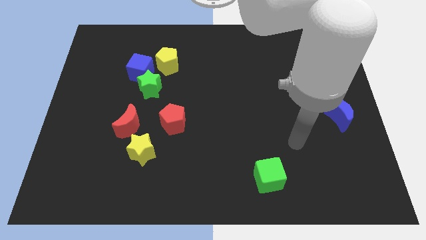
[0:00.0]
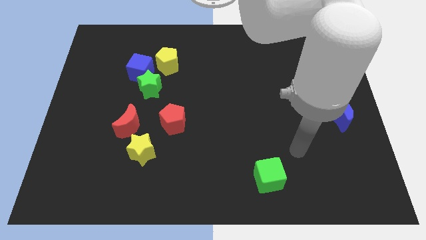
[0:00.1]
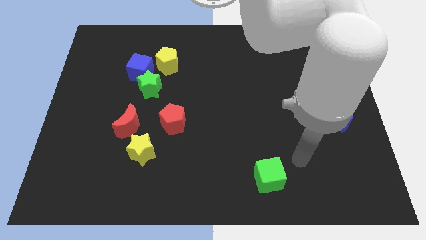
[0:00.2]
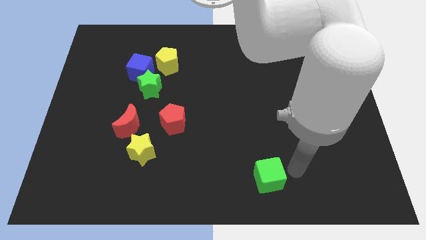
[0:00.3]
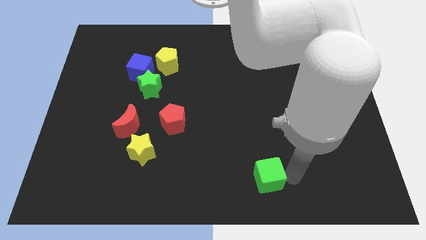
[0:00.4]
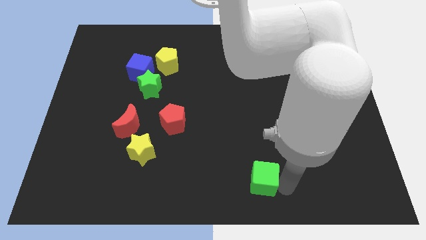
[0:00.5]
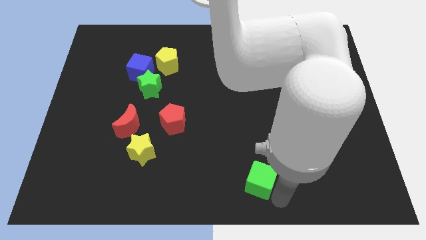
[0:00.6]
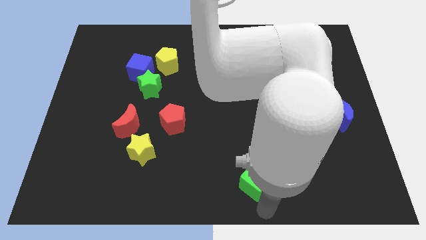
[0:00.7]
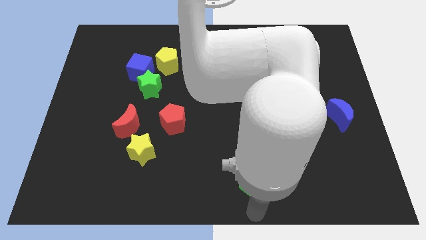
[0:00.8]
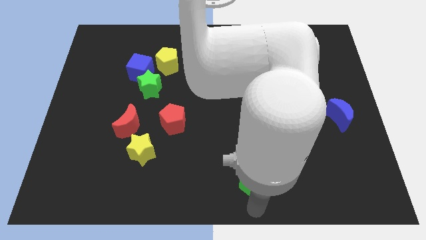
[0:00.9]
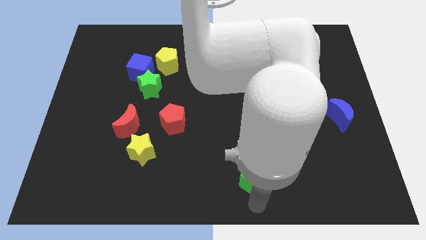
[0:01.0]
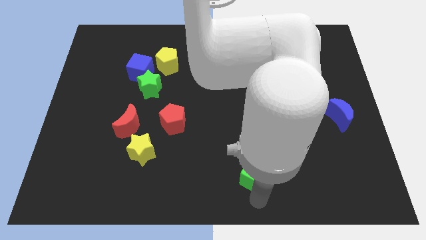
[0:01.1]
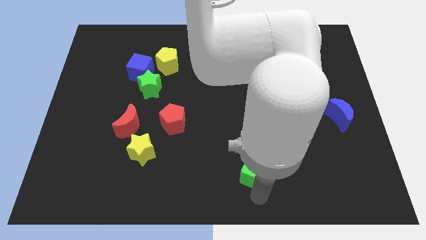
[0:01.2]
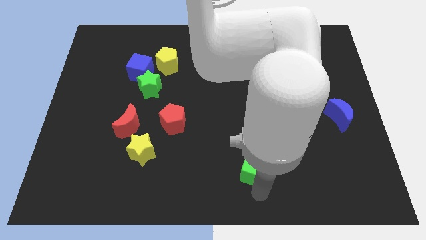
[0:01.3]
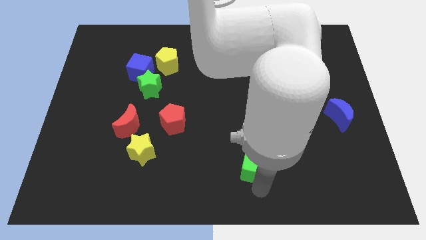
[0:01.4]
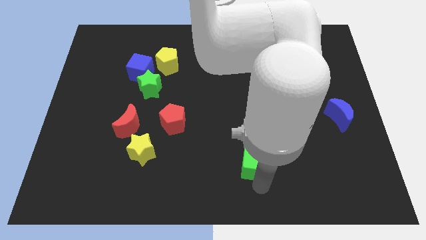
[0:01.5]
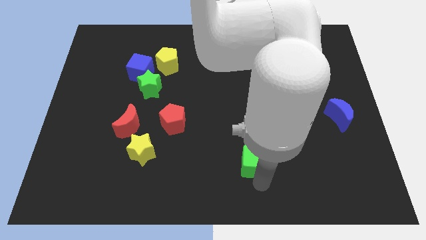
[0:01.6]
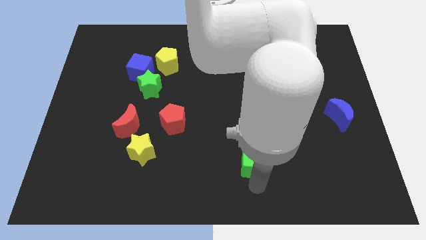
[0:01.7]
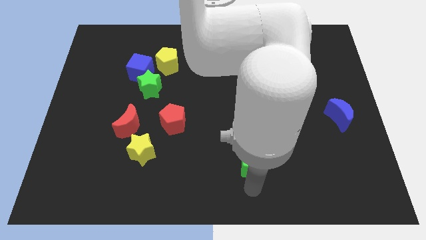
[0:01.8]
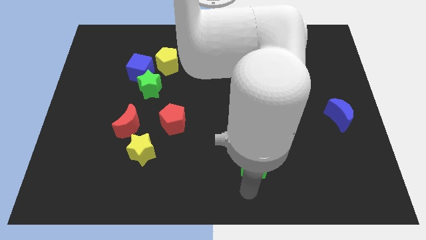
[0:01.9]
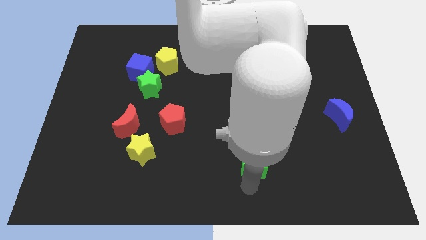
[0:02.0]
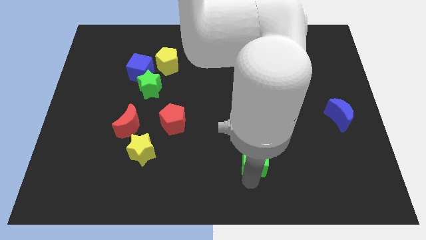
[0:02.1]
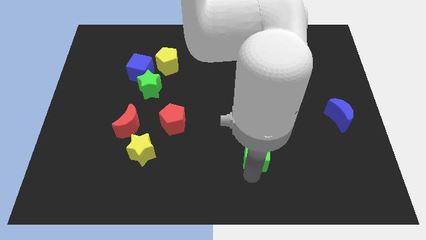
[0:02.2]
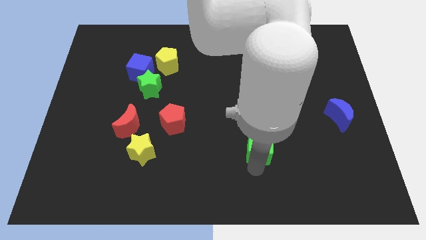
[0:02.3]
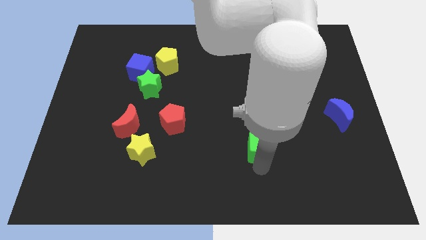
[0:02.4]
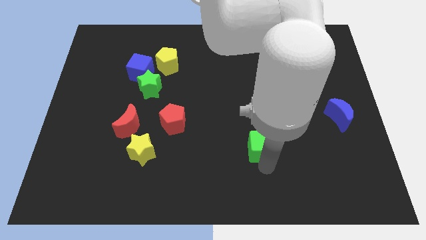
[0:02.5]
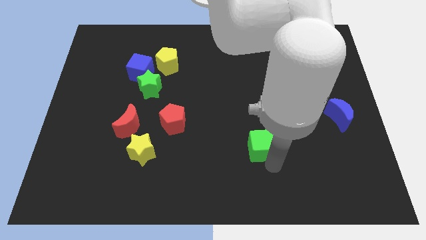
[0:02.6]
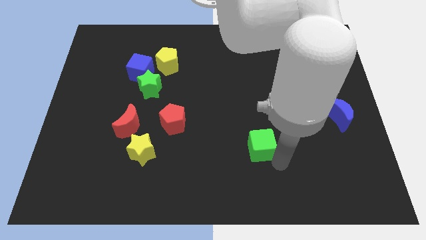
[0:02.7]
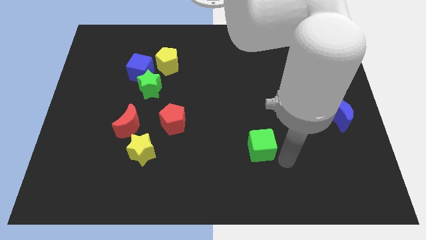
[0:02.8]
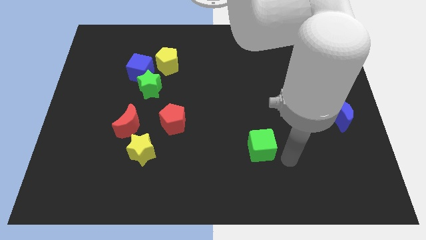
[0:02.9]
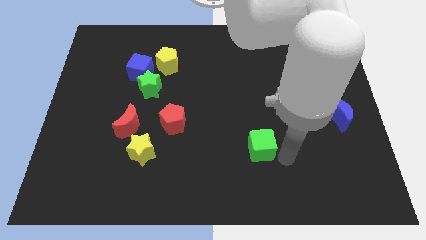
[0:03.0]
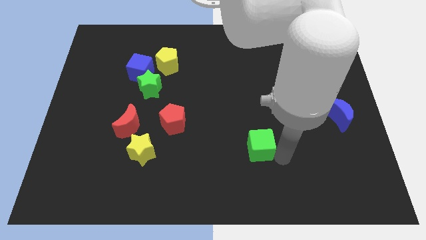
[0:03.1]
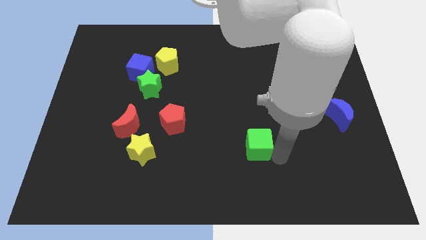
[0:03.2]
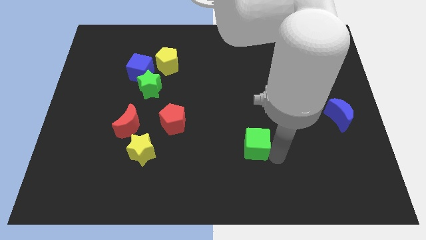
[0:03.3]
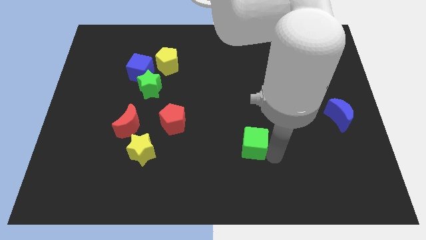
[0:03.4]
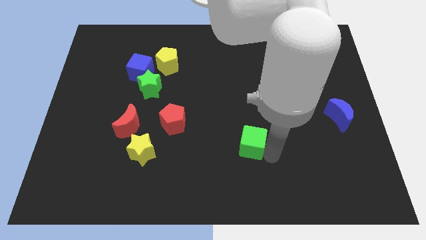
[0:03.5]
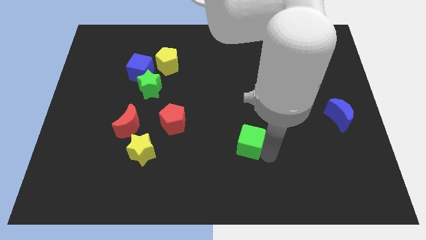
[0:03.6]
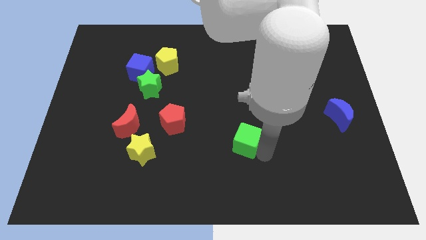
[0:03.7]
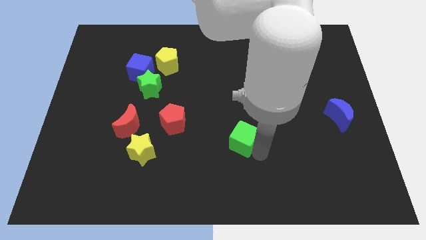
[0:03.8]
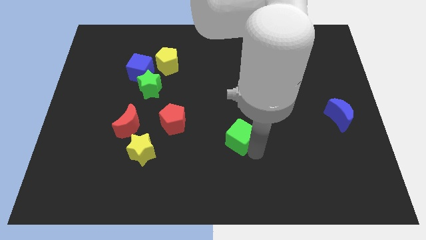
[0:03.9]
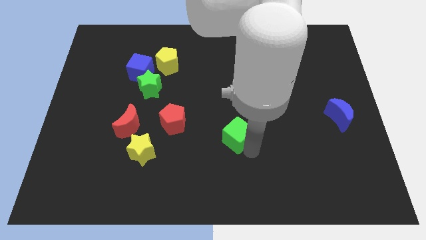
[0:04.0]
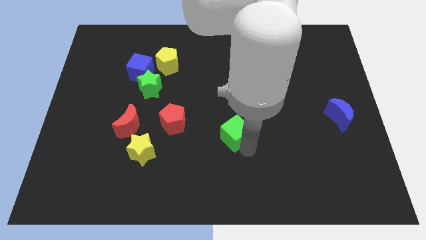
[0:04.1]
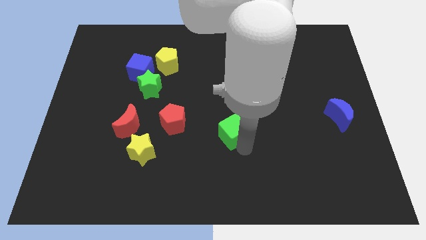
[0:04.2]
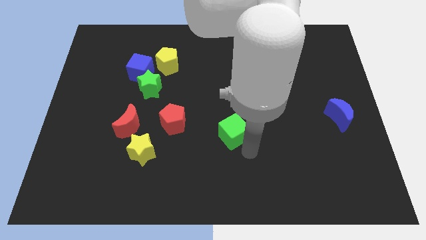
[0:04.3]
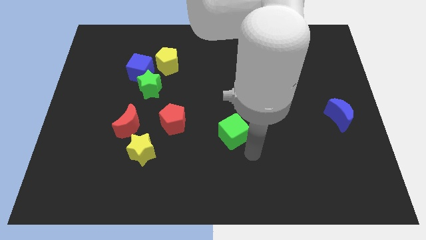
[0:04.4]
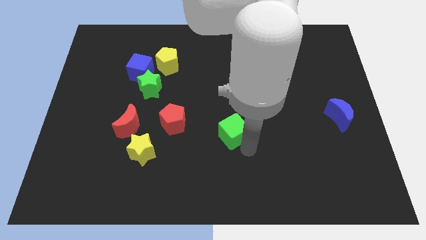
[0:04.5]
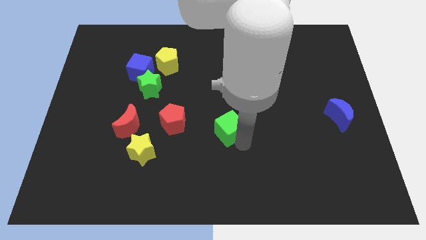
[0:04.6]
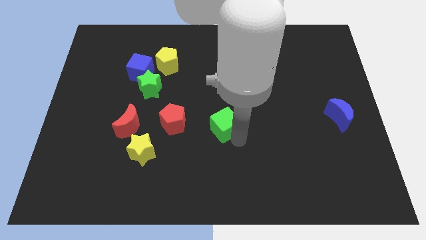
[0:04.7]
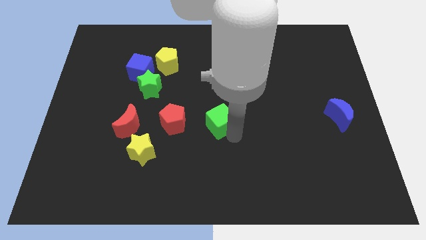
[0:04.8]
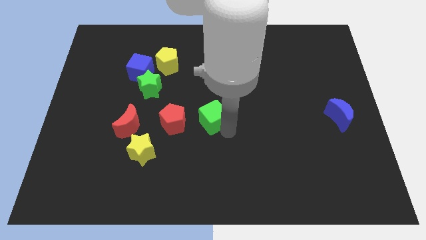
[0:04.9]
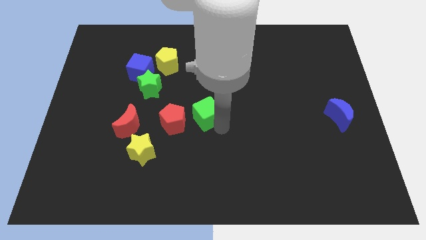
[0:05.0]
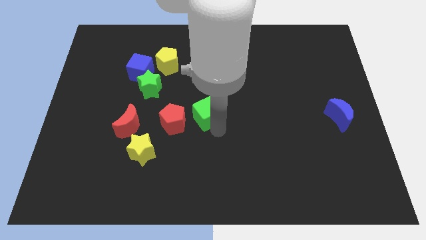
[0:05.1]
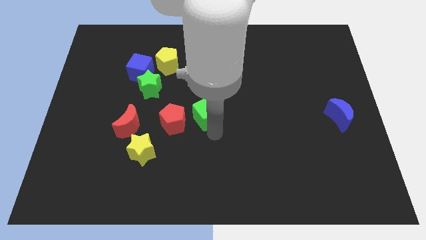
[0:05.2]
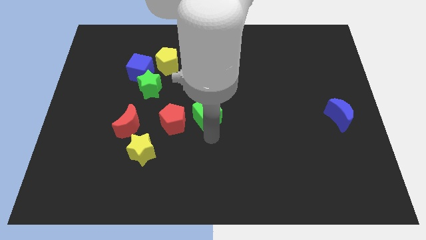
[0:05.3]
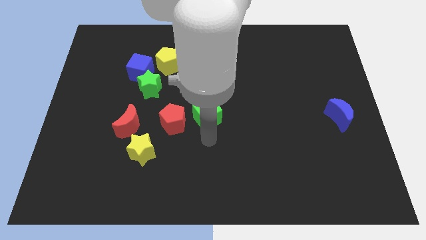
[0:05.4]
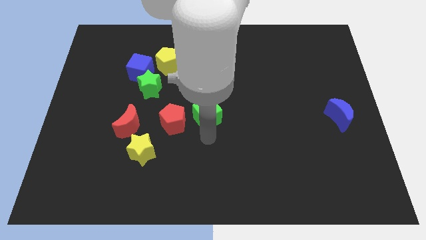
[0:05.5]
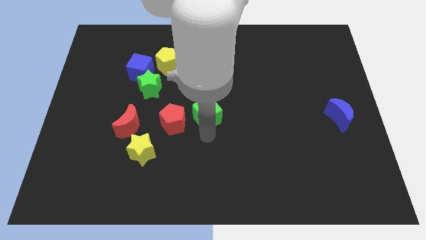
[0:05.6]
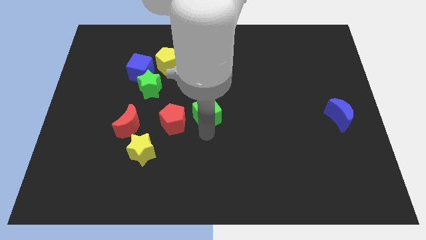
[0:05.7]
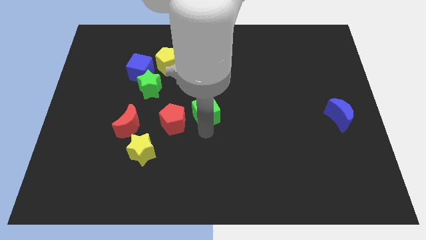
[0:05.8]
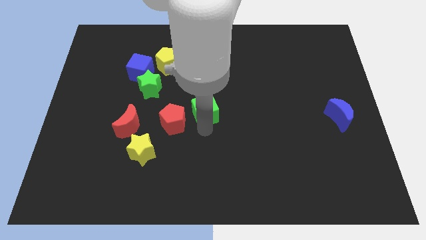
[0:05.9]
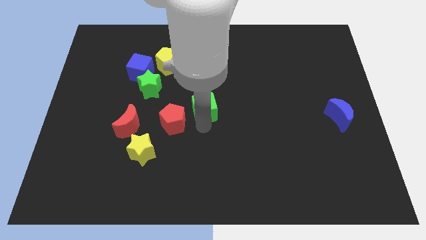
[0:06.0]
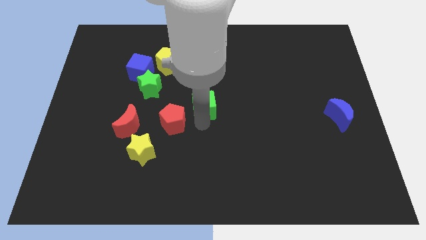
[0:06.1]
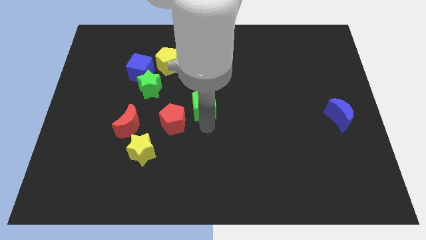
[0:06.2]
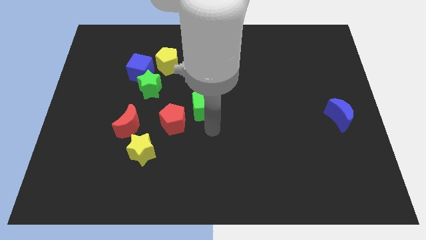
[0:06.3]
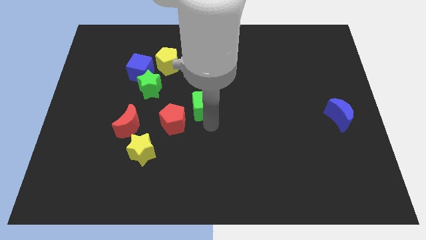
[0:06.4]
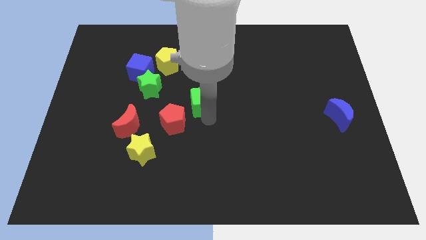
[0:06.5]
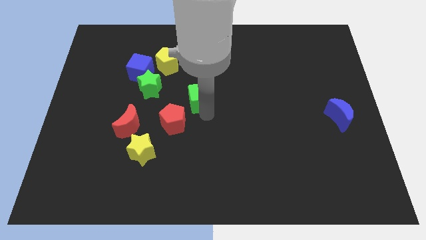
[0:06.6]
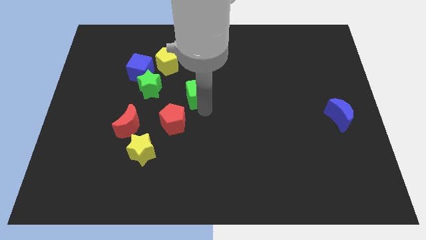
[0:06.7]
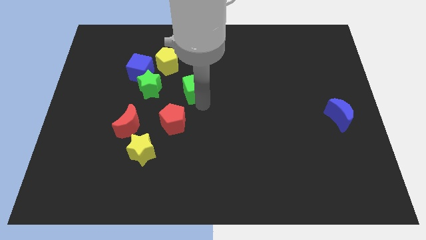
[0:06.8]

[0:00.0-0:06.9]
slide the green cube to the bottom right side of the yellow pentagon
